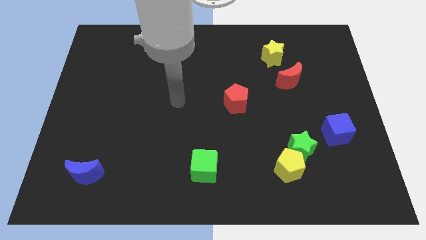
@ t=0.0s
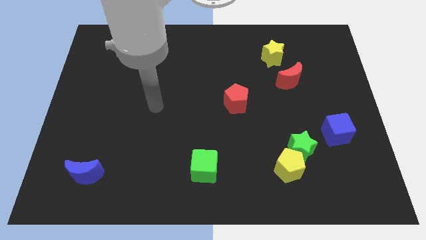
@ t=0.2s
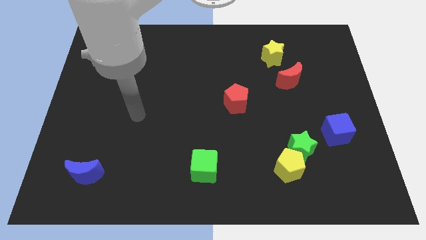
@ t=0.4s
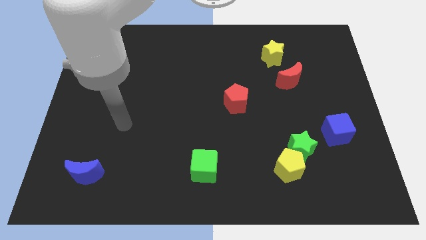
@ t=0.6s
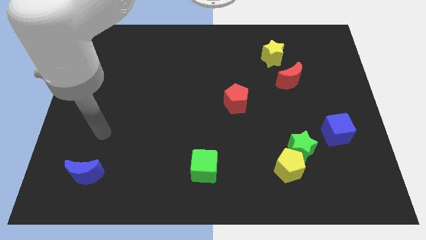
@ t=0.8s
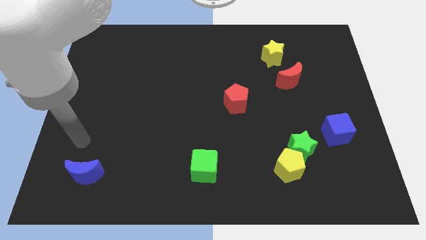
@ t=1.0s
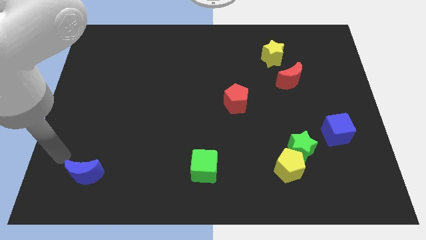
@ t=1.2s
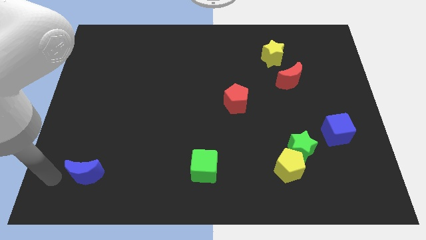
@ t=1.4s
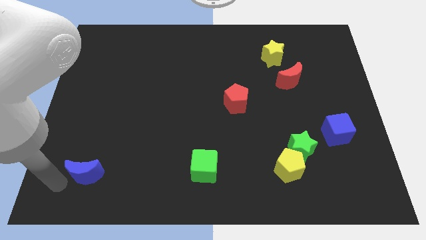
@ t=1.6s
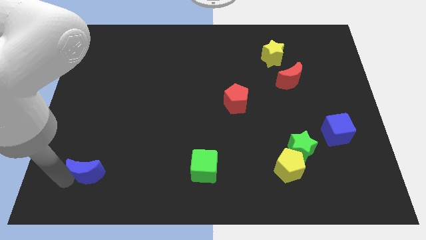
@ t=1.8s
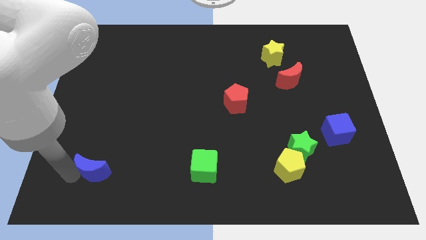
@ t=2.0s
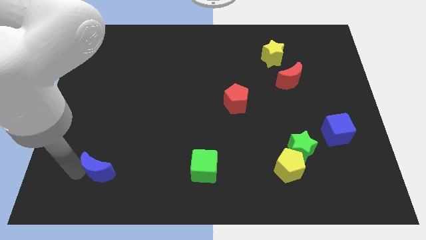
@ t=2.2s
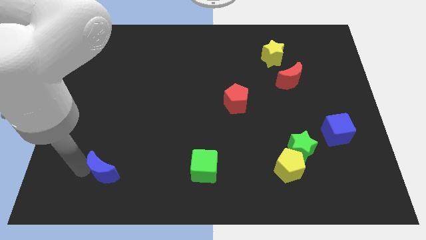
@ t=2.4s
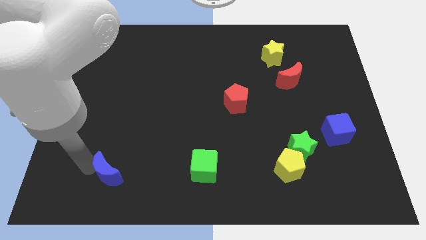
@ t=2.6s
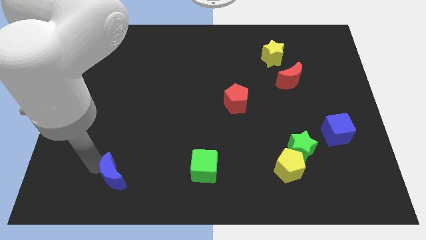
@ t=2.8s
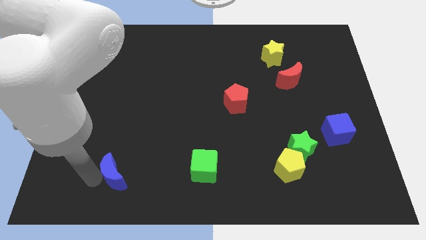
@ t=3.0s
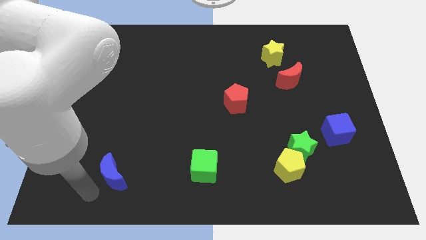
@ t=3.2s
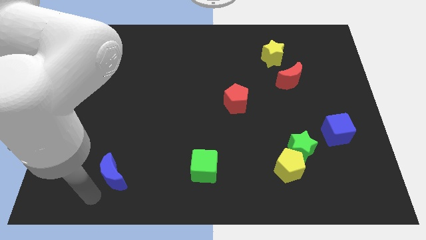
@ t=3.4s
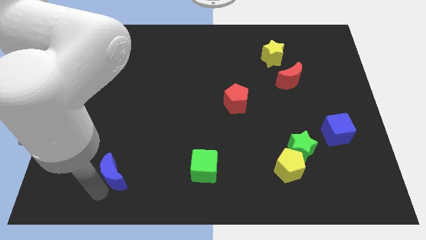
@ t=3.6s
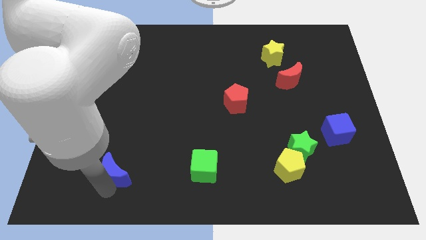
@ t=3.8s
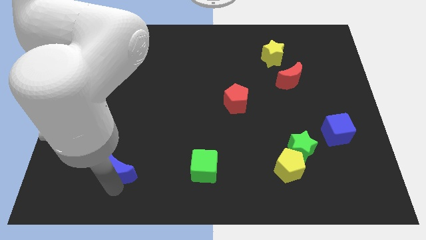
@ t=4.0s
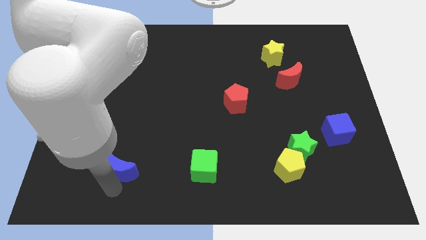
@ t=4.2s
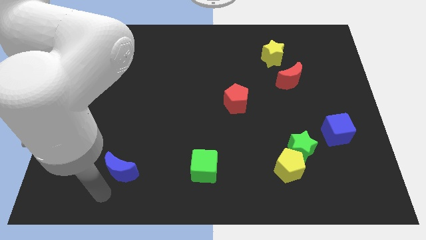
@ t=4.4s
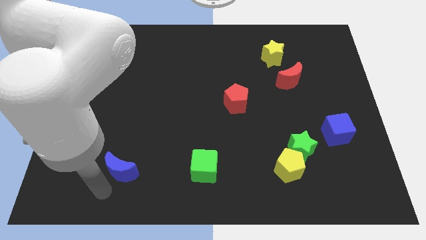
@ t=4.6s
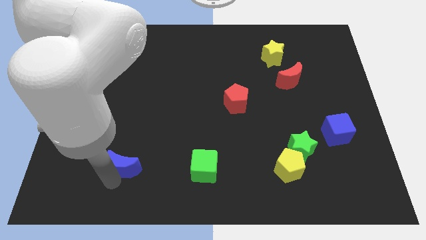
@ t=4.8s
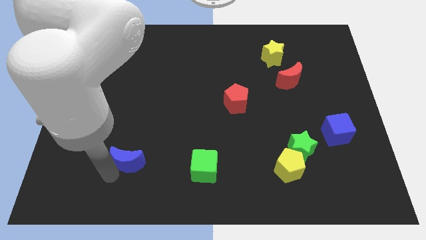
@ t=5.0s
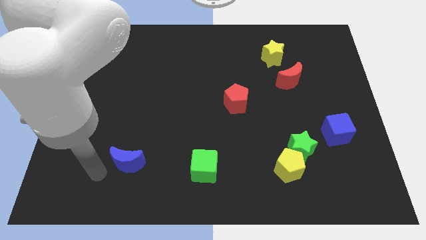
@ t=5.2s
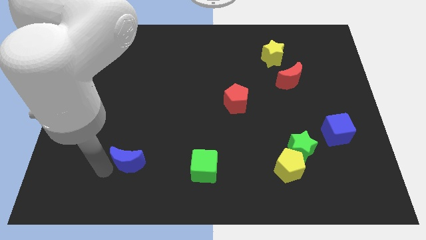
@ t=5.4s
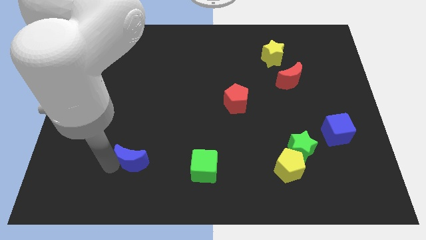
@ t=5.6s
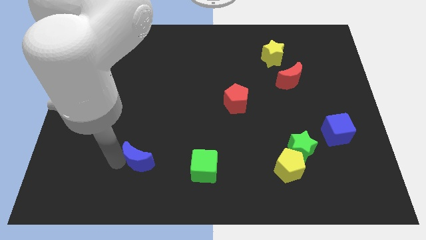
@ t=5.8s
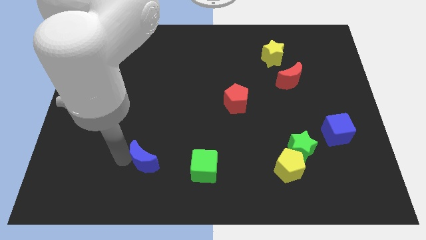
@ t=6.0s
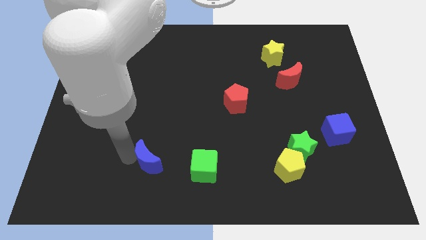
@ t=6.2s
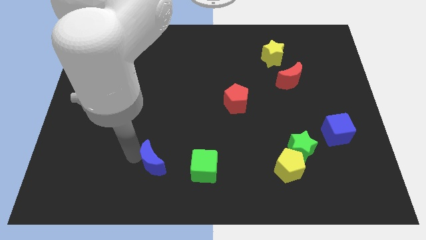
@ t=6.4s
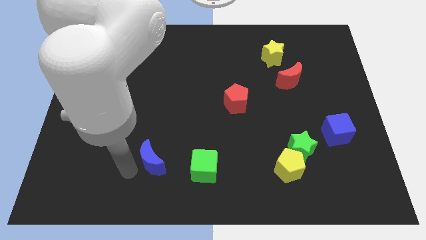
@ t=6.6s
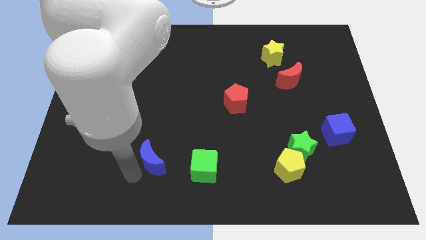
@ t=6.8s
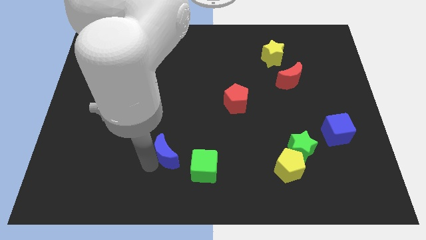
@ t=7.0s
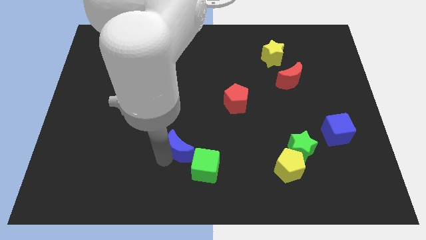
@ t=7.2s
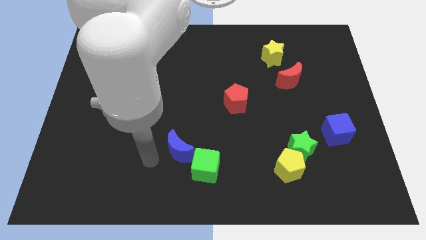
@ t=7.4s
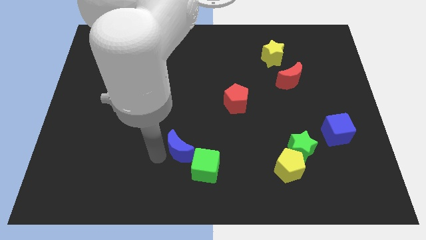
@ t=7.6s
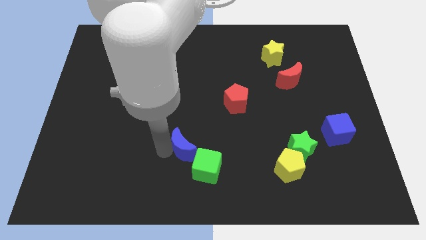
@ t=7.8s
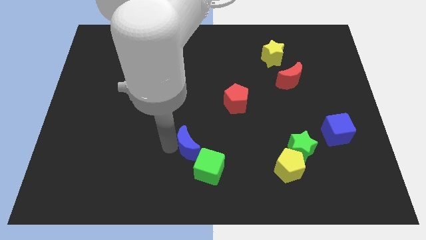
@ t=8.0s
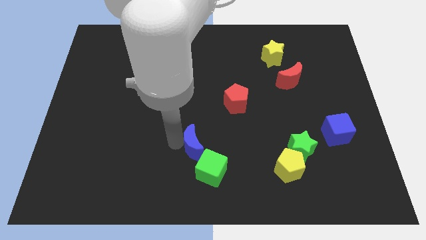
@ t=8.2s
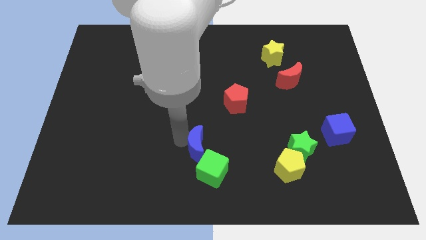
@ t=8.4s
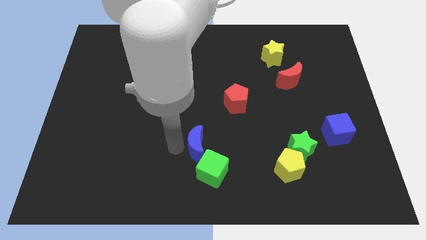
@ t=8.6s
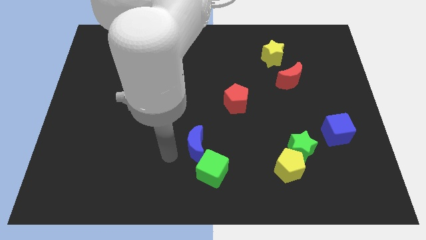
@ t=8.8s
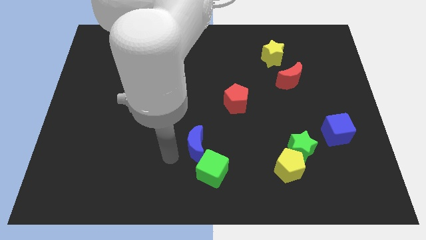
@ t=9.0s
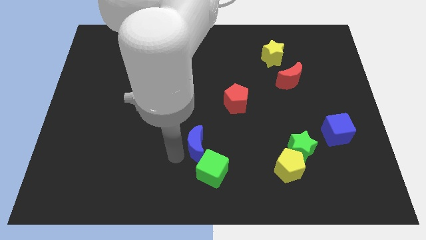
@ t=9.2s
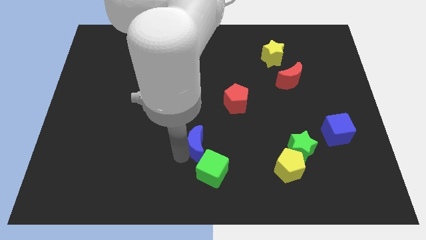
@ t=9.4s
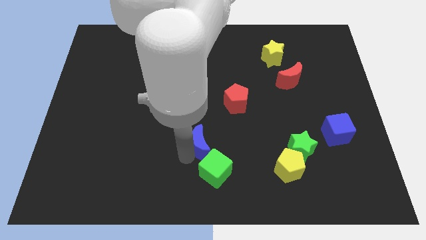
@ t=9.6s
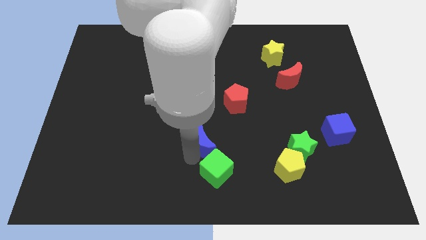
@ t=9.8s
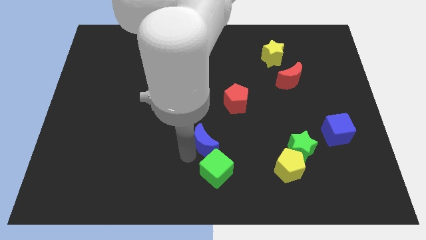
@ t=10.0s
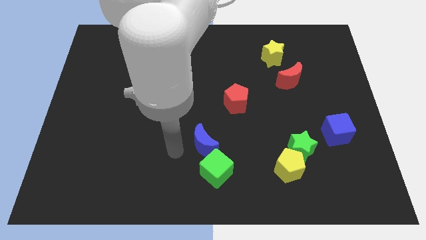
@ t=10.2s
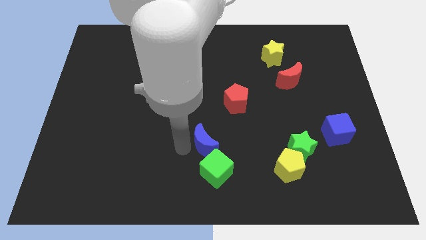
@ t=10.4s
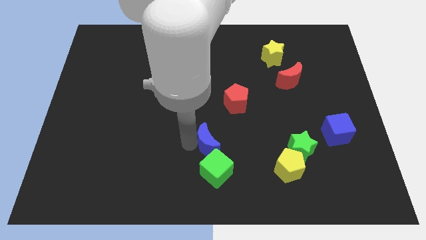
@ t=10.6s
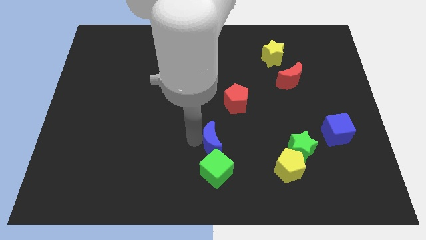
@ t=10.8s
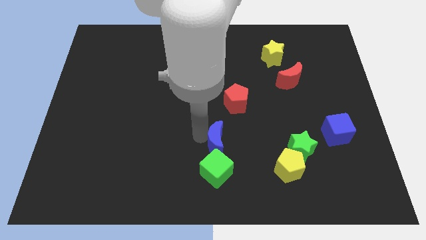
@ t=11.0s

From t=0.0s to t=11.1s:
push the blue moon below the red pentagon

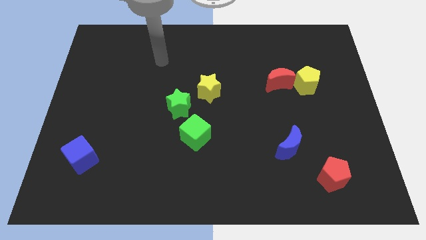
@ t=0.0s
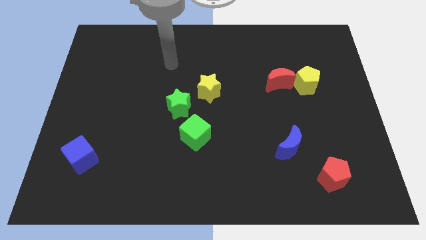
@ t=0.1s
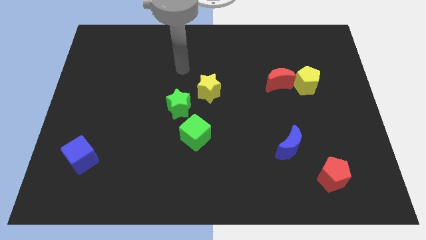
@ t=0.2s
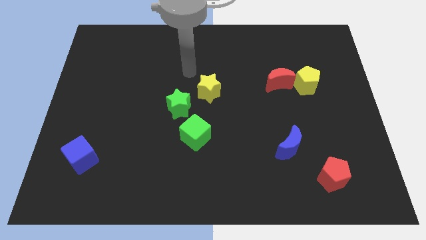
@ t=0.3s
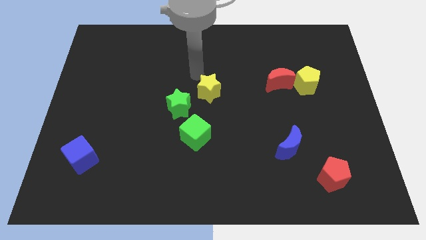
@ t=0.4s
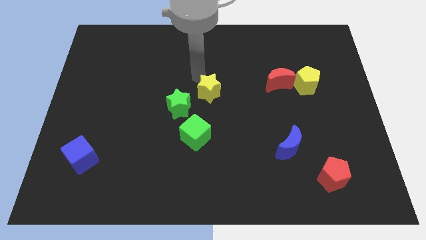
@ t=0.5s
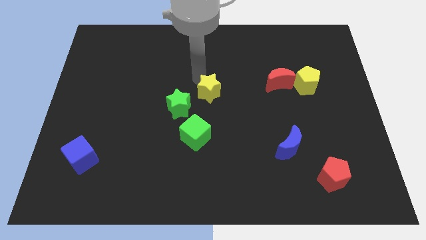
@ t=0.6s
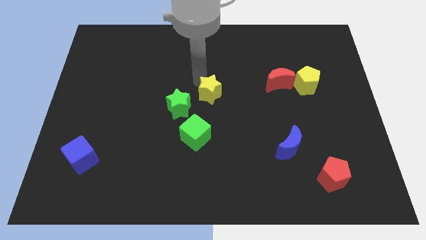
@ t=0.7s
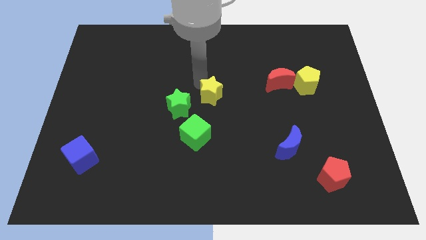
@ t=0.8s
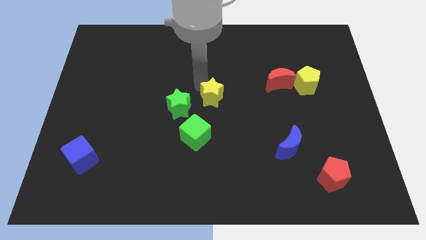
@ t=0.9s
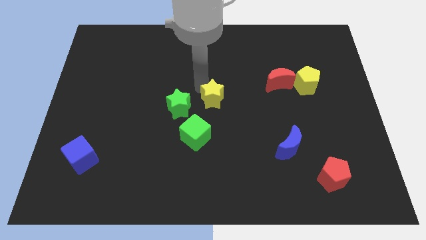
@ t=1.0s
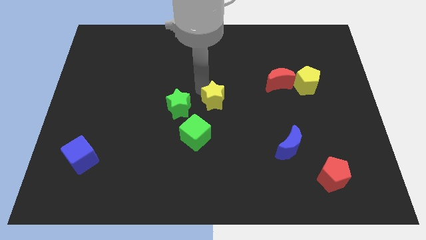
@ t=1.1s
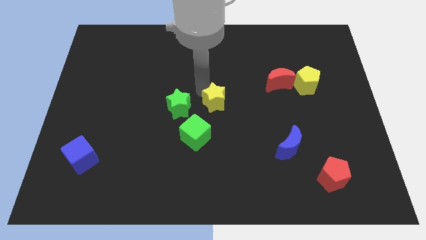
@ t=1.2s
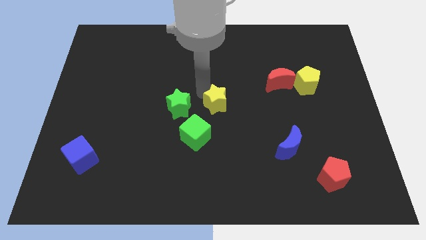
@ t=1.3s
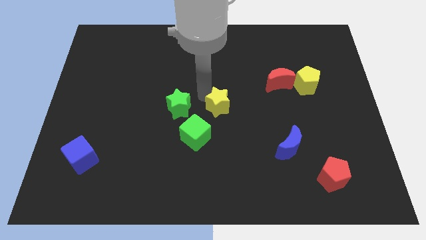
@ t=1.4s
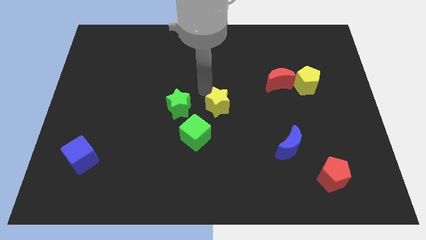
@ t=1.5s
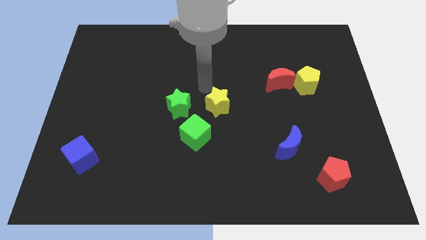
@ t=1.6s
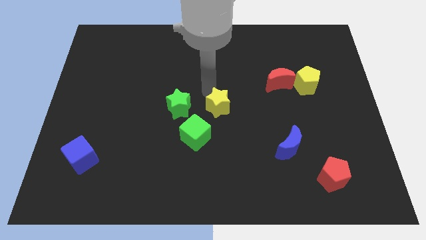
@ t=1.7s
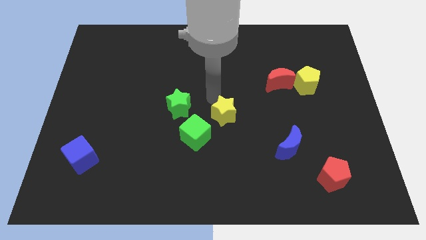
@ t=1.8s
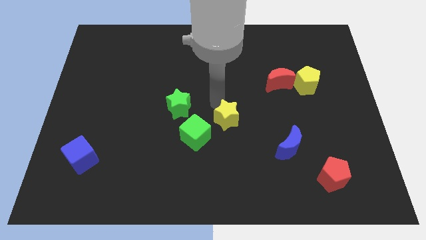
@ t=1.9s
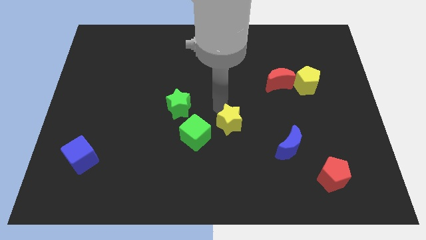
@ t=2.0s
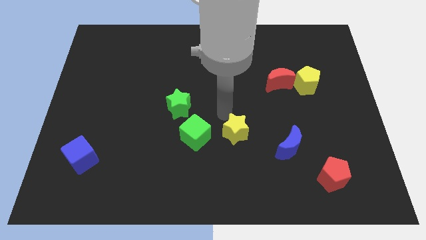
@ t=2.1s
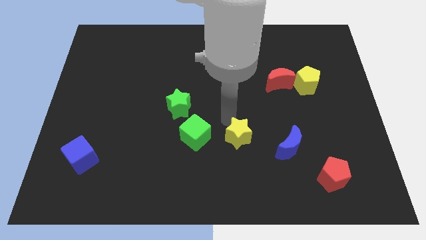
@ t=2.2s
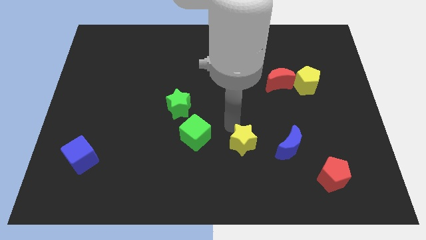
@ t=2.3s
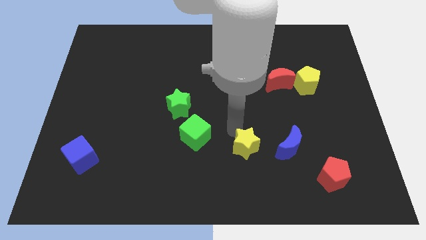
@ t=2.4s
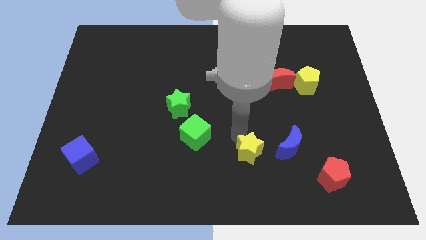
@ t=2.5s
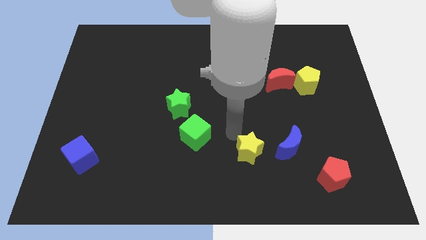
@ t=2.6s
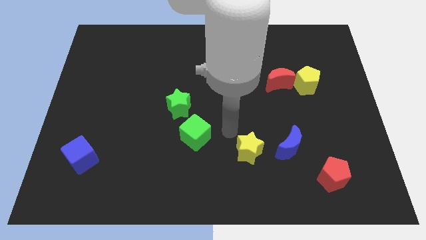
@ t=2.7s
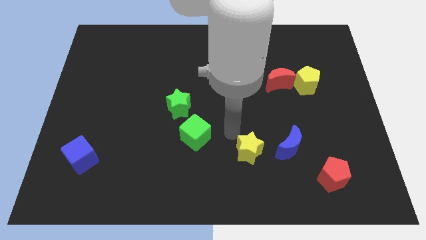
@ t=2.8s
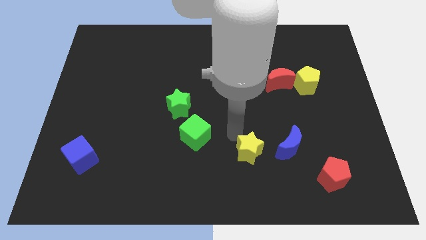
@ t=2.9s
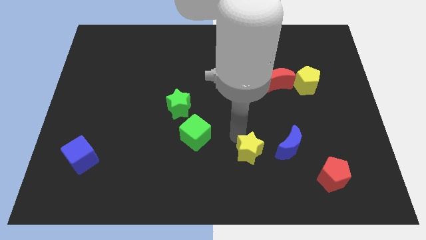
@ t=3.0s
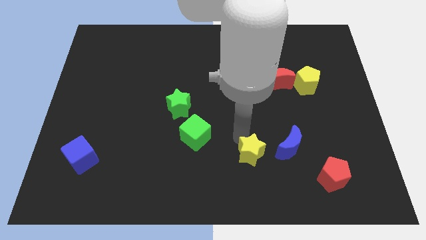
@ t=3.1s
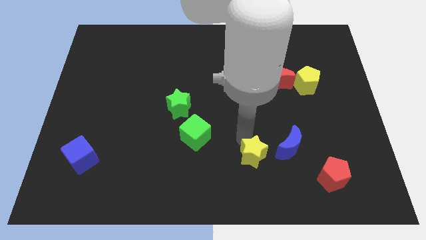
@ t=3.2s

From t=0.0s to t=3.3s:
put the yellow star diagonally down and to the left of the blue moon
